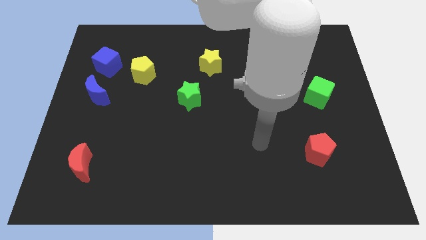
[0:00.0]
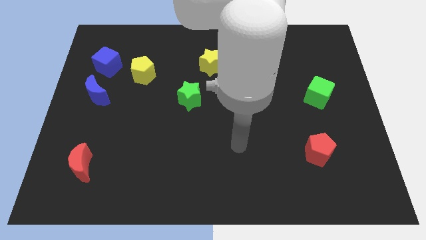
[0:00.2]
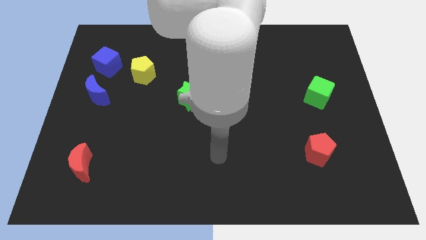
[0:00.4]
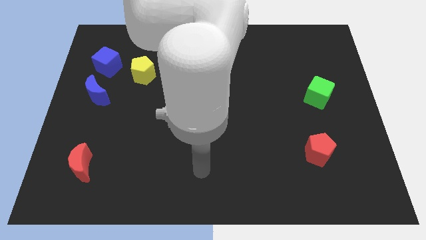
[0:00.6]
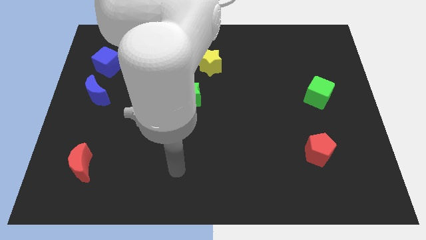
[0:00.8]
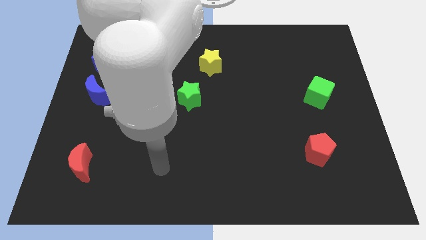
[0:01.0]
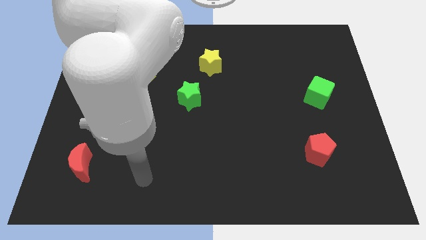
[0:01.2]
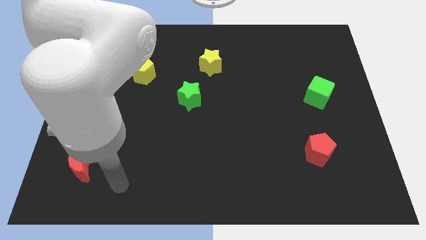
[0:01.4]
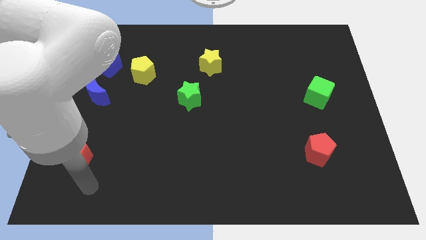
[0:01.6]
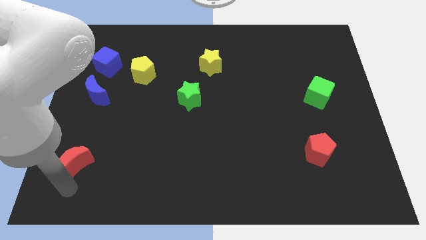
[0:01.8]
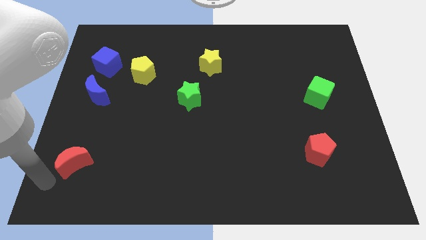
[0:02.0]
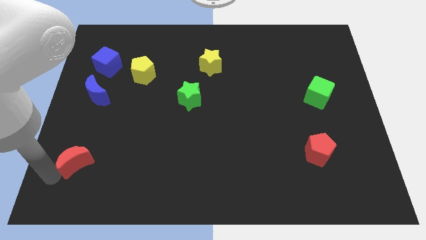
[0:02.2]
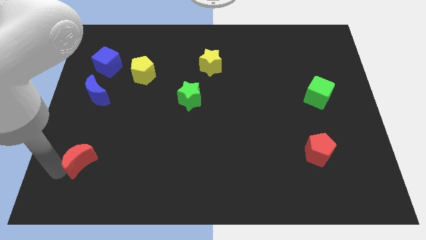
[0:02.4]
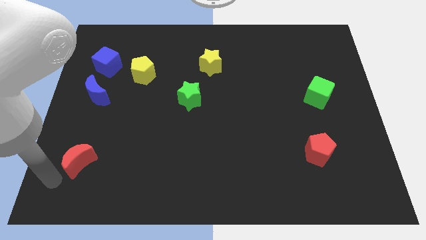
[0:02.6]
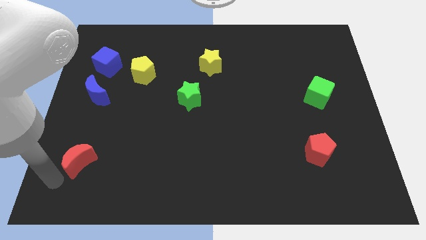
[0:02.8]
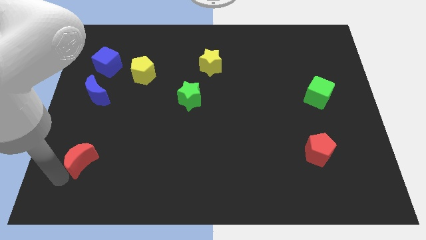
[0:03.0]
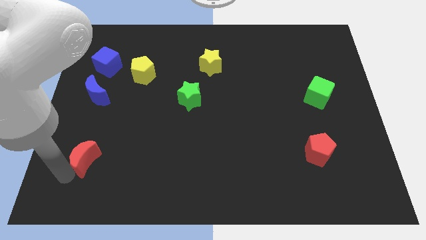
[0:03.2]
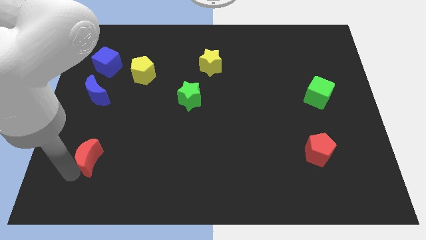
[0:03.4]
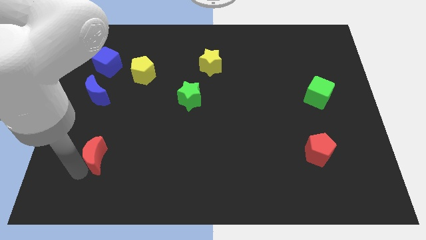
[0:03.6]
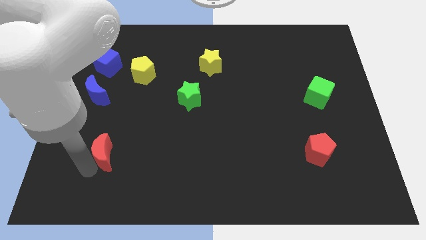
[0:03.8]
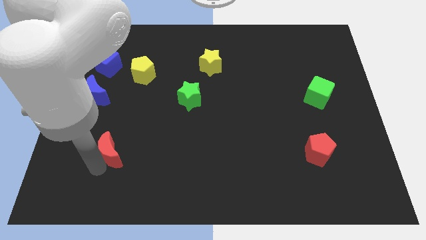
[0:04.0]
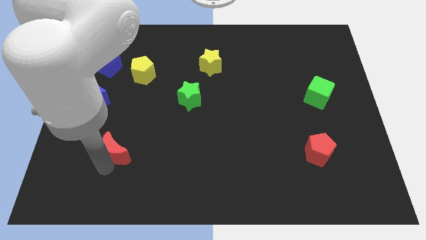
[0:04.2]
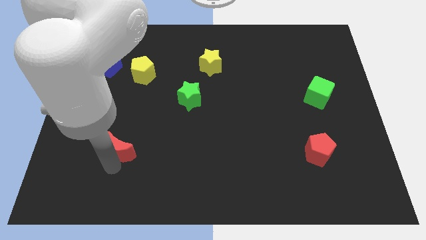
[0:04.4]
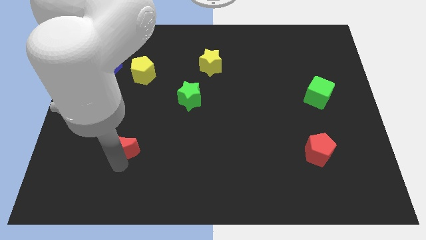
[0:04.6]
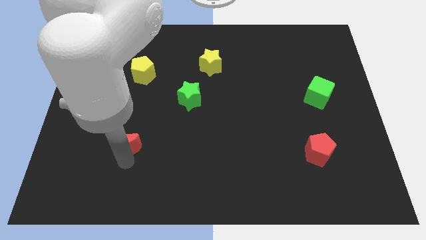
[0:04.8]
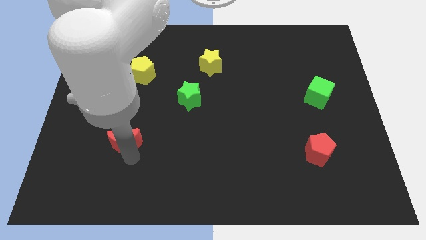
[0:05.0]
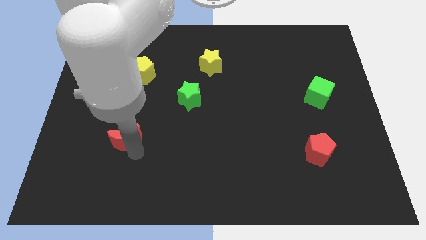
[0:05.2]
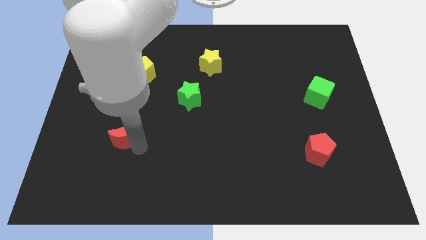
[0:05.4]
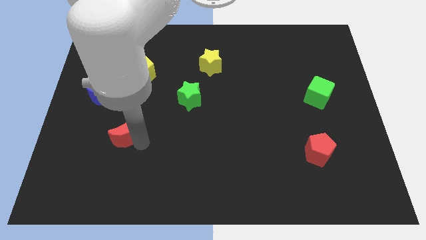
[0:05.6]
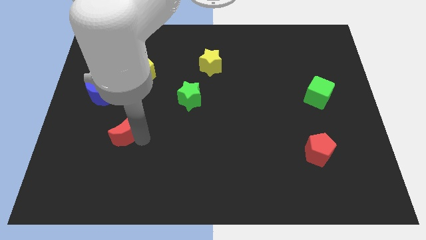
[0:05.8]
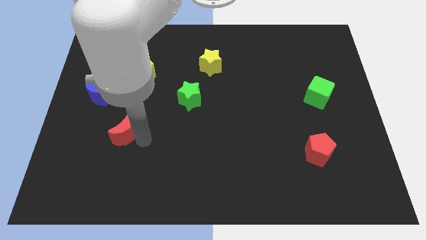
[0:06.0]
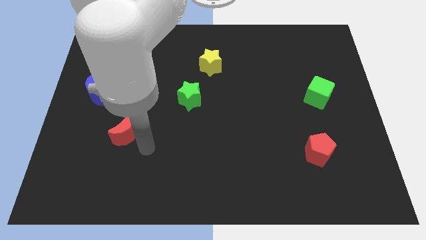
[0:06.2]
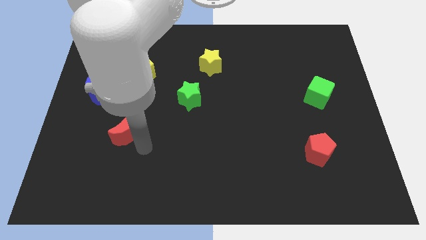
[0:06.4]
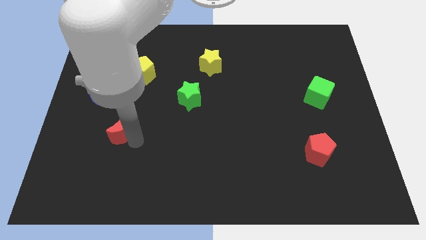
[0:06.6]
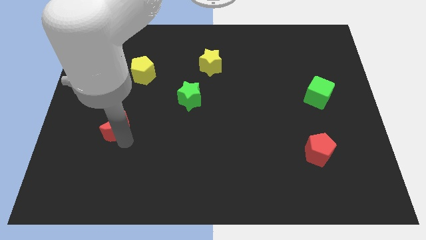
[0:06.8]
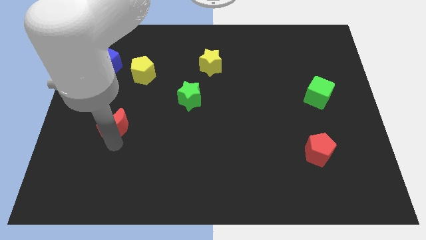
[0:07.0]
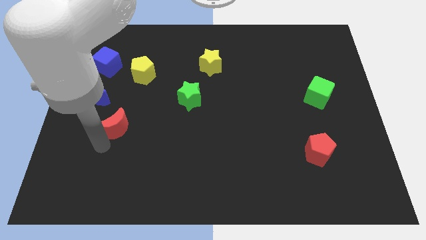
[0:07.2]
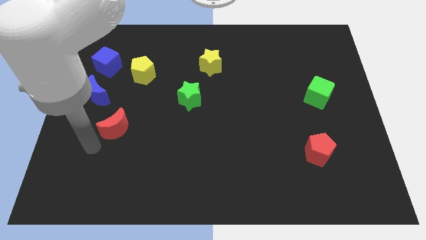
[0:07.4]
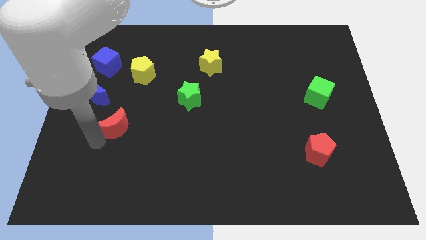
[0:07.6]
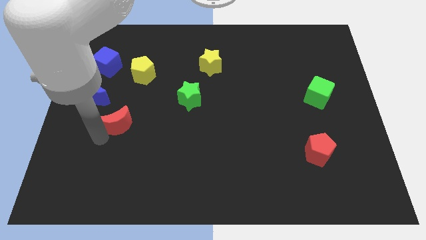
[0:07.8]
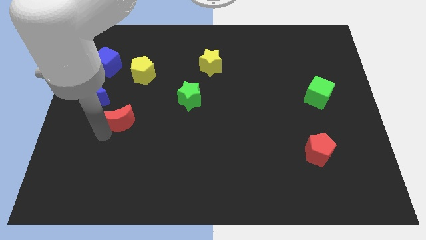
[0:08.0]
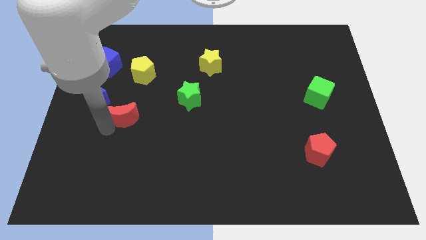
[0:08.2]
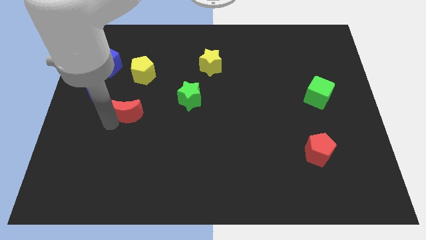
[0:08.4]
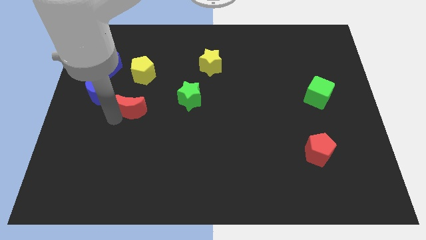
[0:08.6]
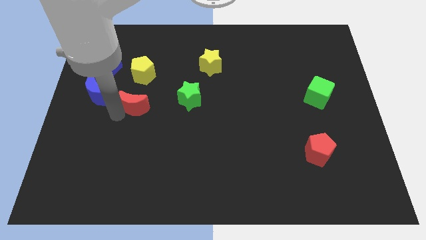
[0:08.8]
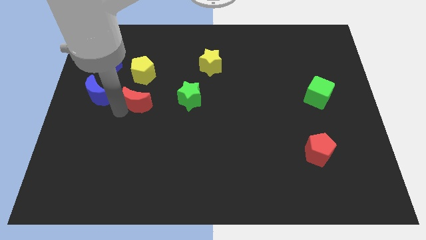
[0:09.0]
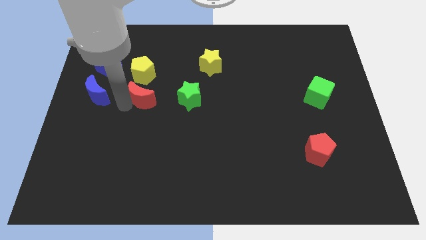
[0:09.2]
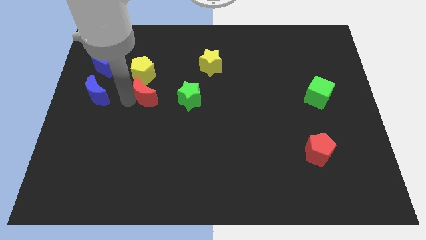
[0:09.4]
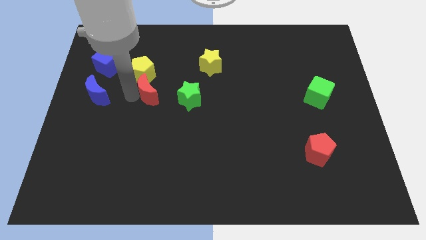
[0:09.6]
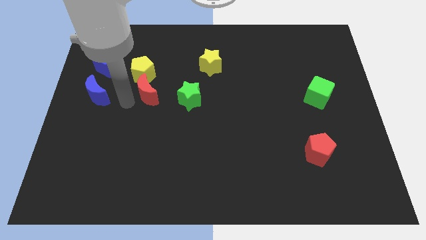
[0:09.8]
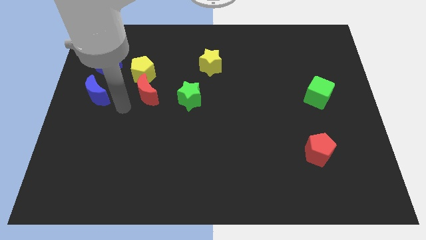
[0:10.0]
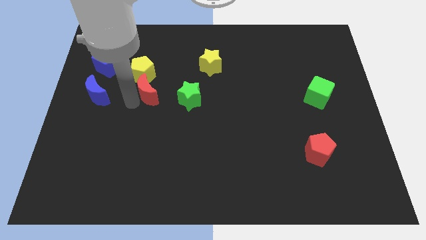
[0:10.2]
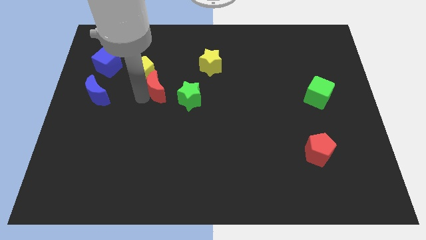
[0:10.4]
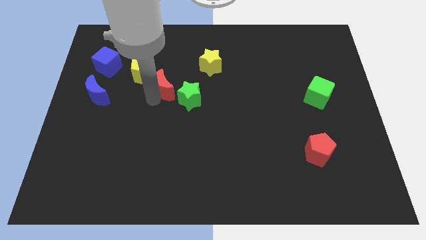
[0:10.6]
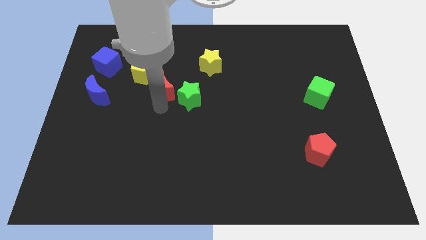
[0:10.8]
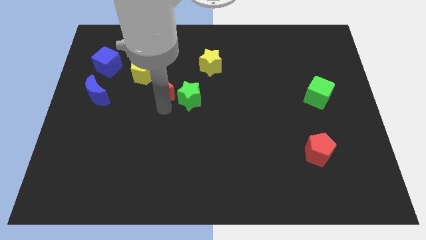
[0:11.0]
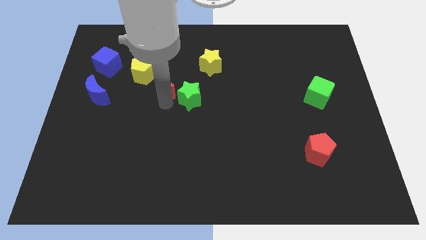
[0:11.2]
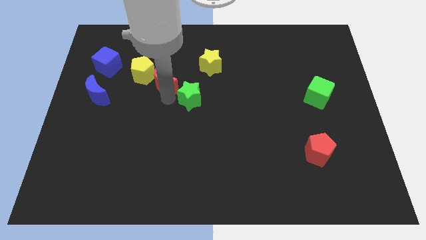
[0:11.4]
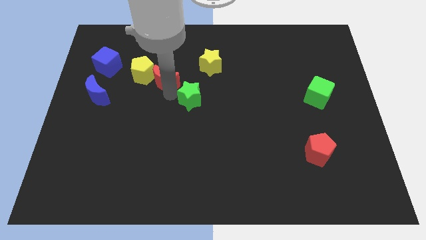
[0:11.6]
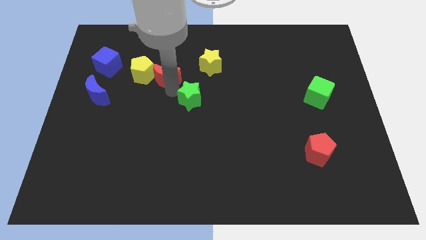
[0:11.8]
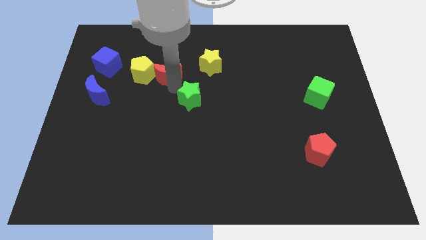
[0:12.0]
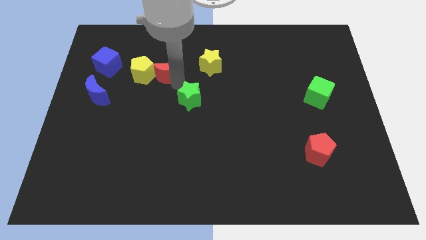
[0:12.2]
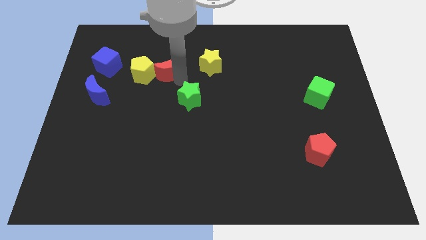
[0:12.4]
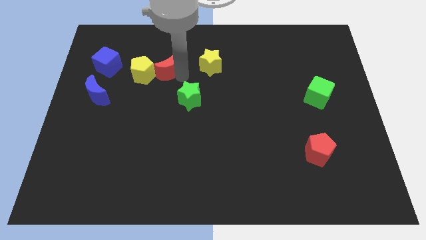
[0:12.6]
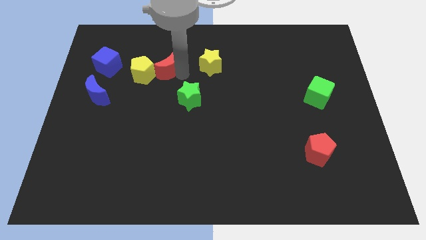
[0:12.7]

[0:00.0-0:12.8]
move the red moon to the right of the blue cube
